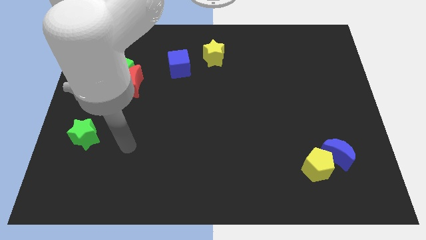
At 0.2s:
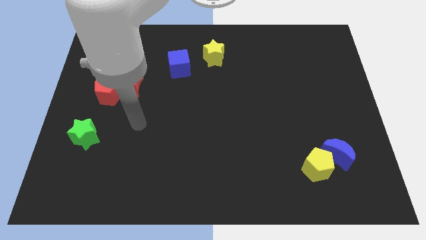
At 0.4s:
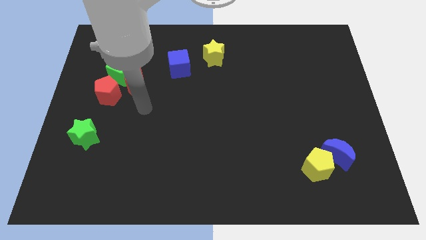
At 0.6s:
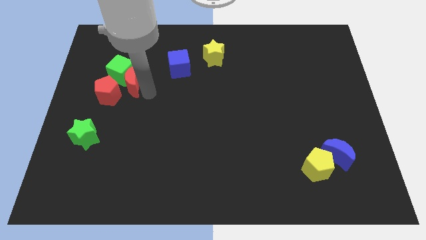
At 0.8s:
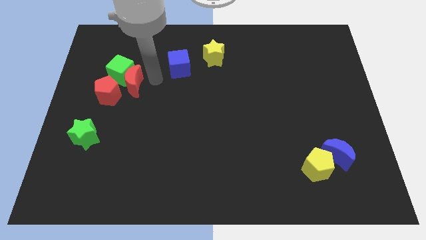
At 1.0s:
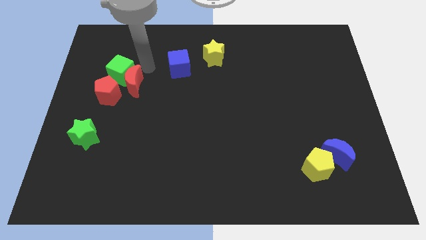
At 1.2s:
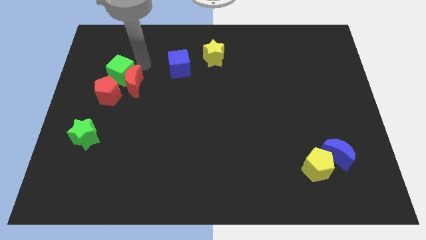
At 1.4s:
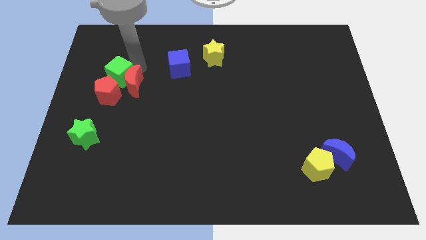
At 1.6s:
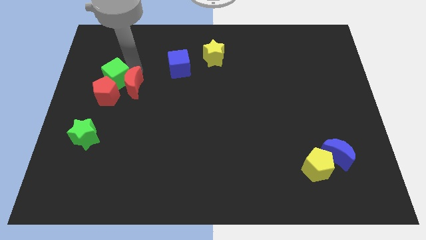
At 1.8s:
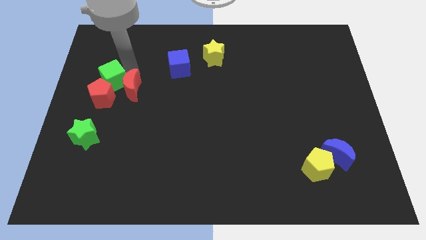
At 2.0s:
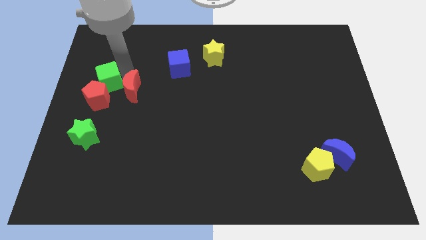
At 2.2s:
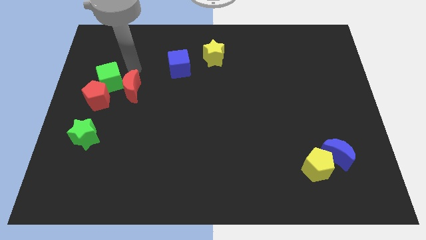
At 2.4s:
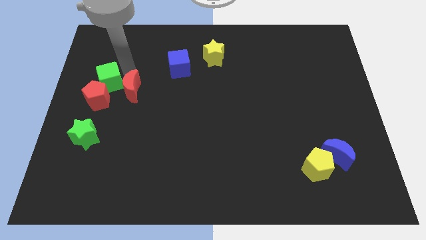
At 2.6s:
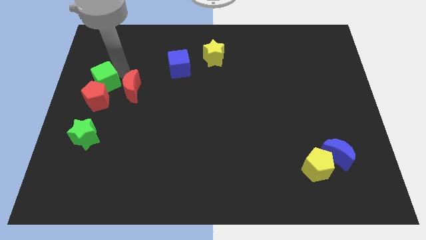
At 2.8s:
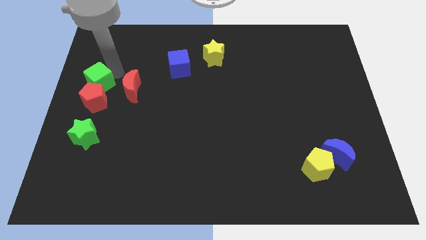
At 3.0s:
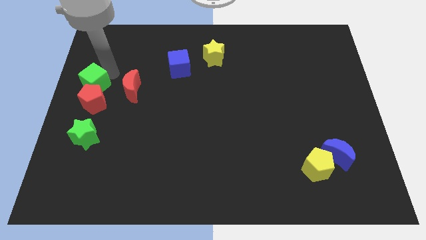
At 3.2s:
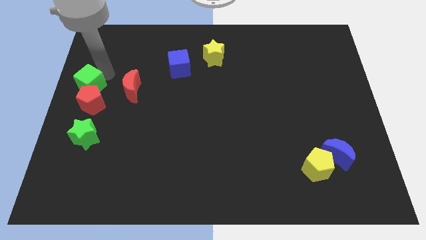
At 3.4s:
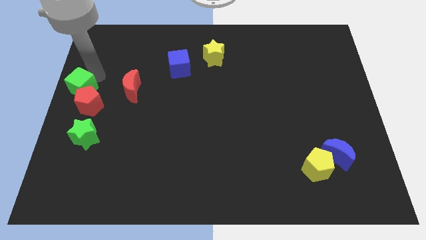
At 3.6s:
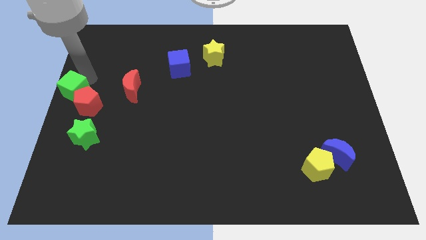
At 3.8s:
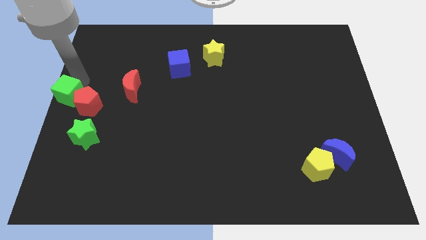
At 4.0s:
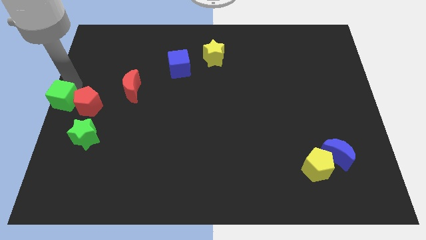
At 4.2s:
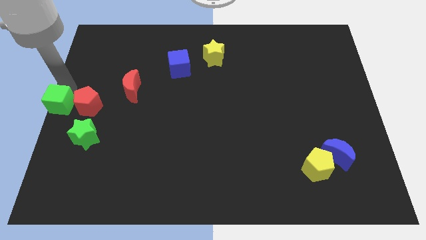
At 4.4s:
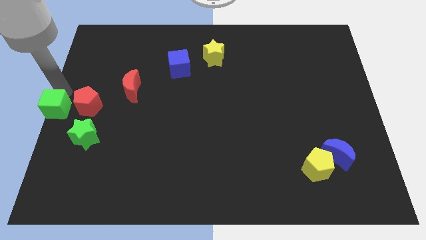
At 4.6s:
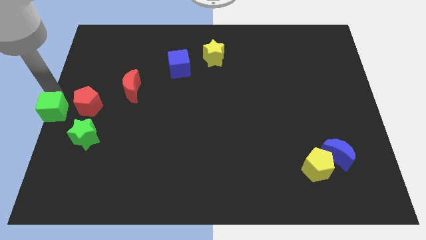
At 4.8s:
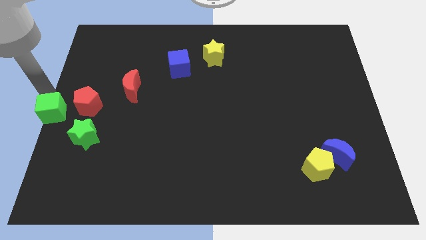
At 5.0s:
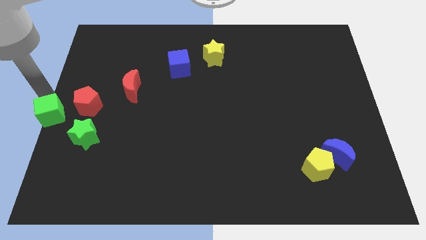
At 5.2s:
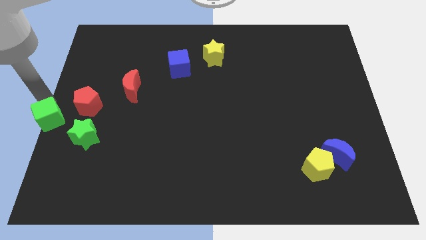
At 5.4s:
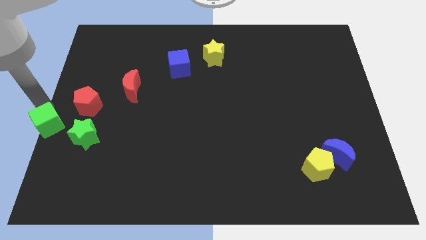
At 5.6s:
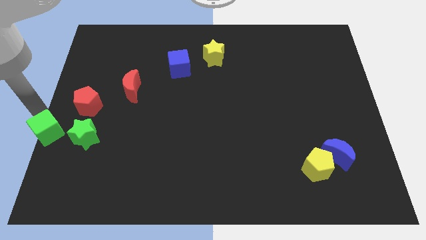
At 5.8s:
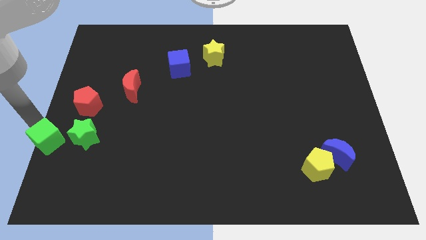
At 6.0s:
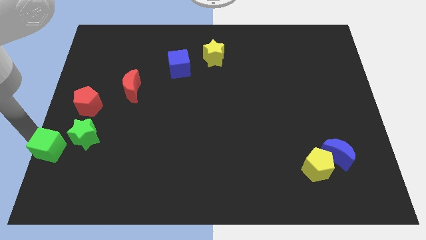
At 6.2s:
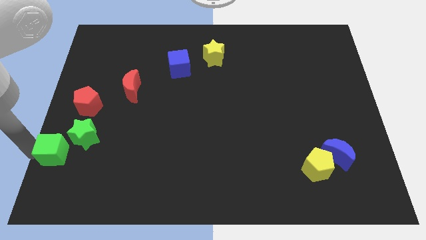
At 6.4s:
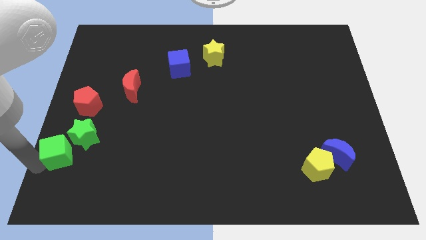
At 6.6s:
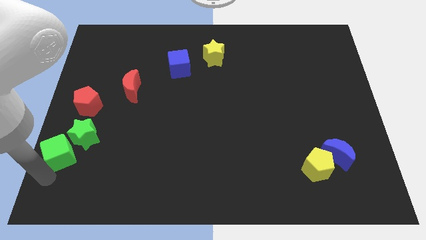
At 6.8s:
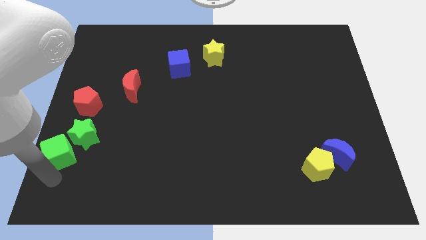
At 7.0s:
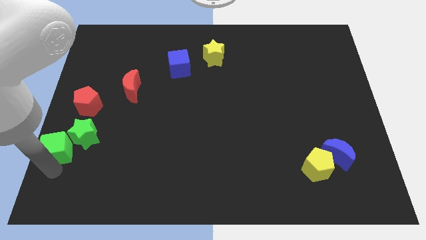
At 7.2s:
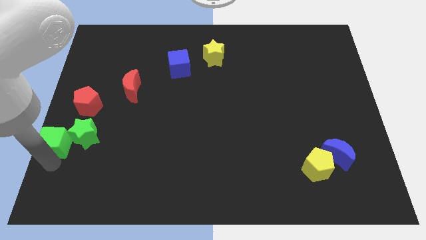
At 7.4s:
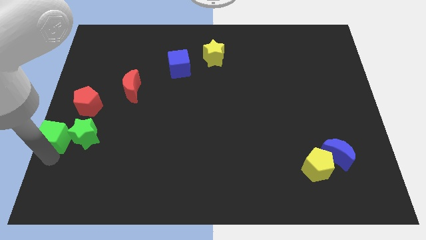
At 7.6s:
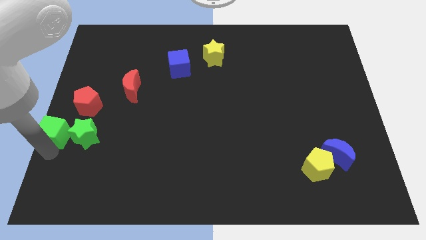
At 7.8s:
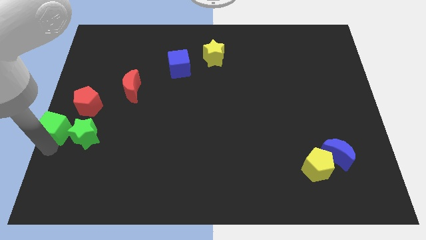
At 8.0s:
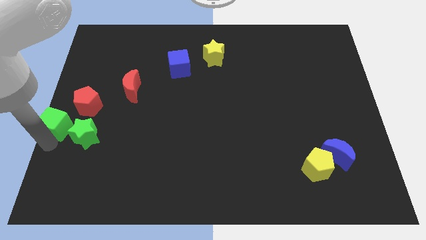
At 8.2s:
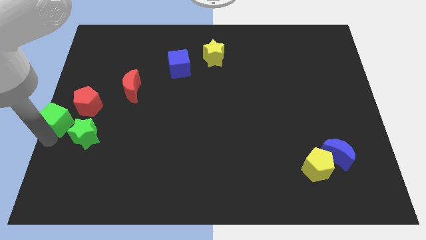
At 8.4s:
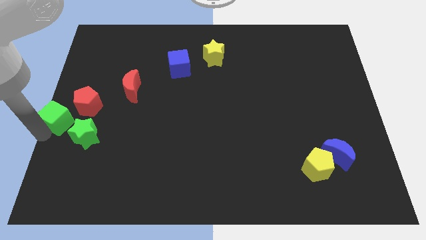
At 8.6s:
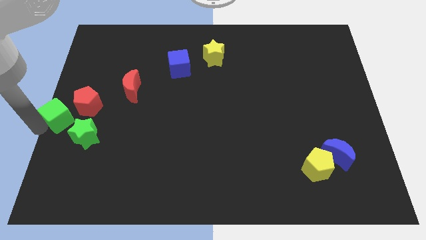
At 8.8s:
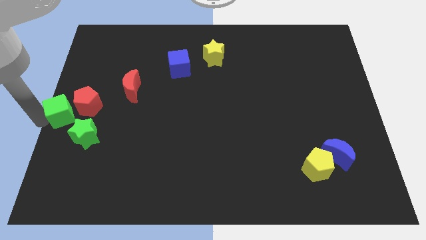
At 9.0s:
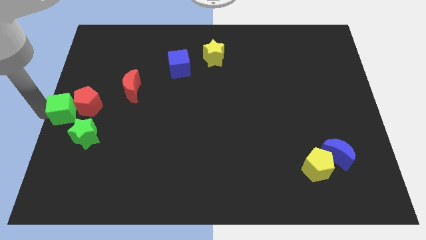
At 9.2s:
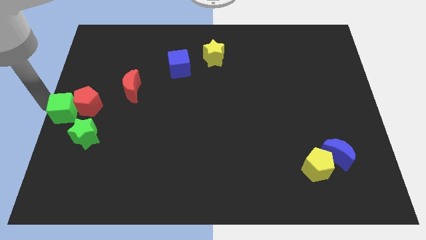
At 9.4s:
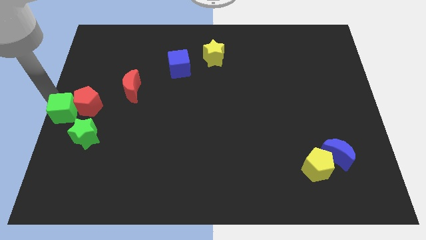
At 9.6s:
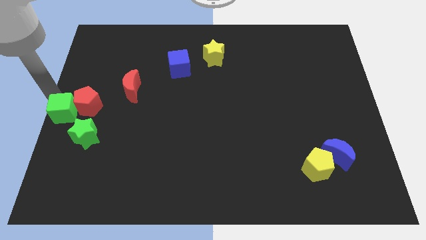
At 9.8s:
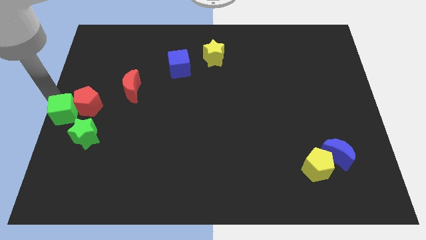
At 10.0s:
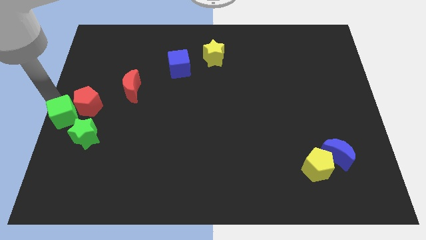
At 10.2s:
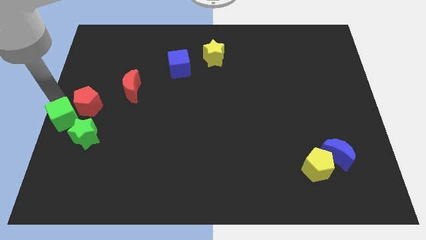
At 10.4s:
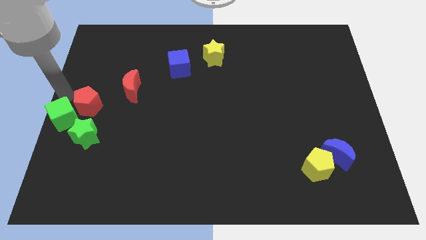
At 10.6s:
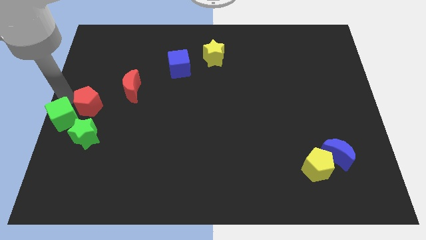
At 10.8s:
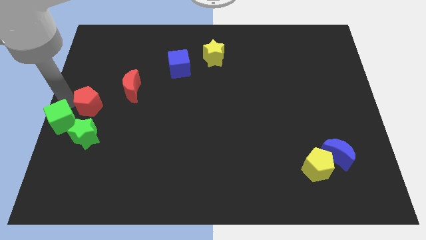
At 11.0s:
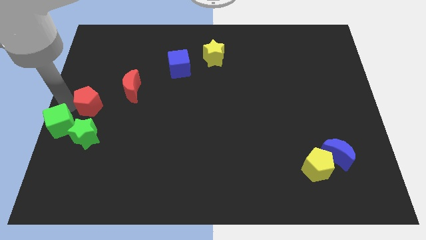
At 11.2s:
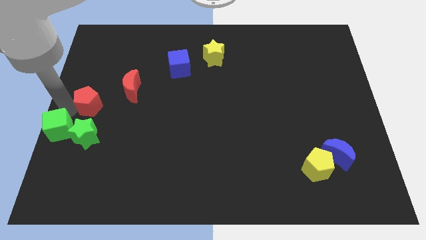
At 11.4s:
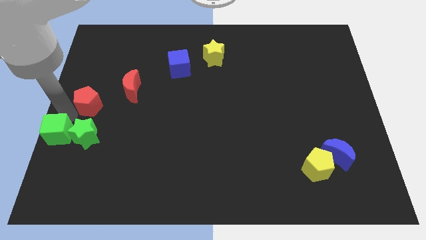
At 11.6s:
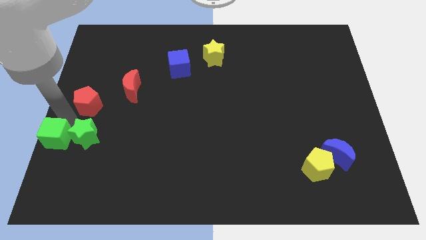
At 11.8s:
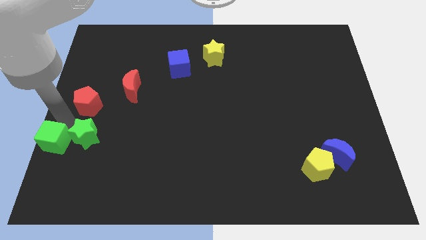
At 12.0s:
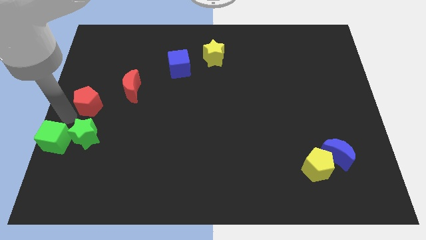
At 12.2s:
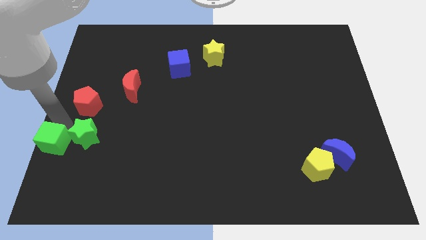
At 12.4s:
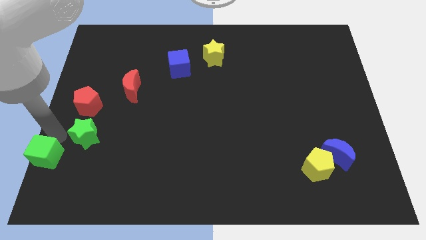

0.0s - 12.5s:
move the green cube to the bottom left

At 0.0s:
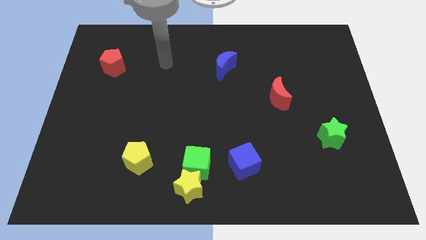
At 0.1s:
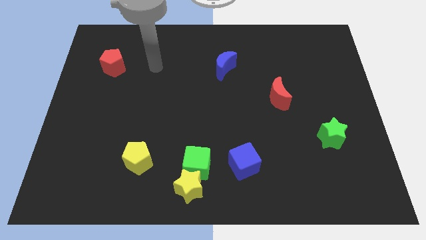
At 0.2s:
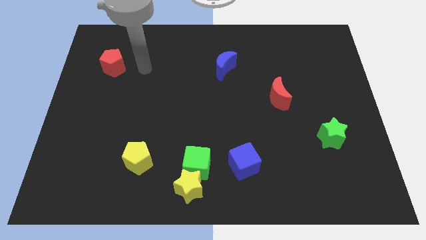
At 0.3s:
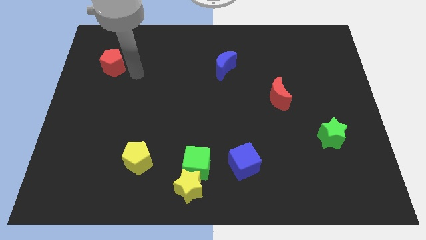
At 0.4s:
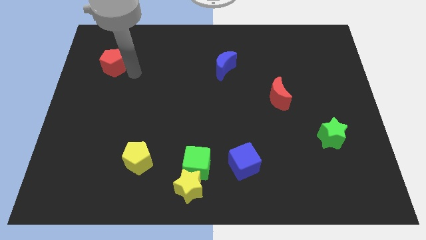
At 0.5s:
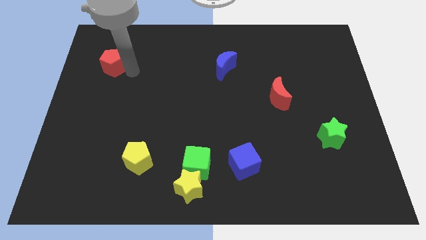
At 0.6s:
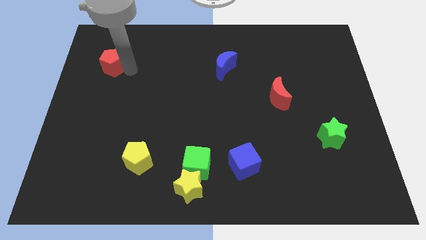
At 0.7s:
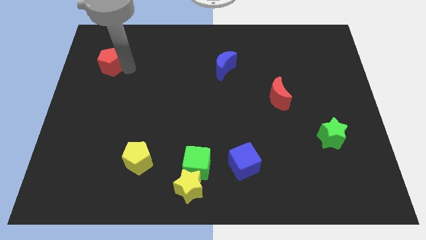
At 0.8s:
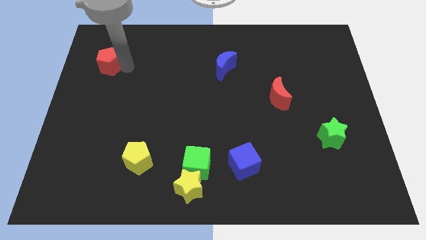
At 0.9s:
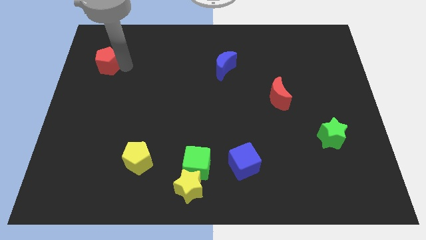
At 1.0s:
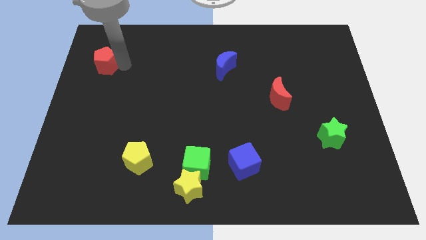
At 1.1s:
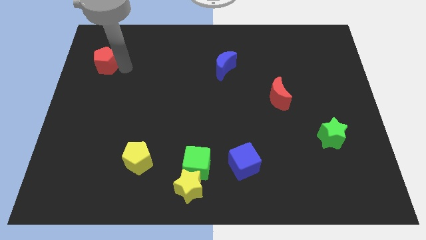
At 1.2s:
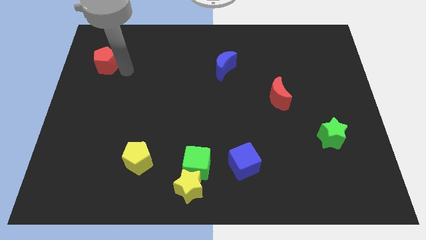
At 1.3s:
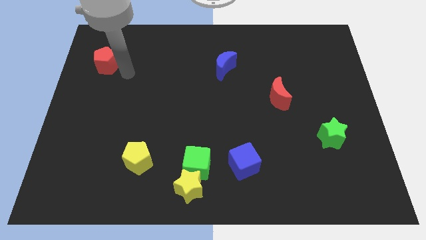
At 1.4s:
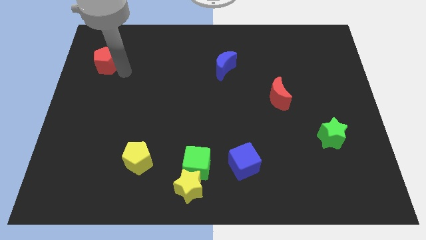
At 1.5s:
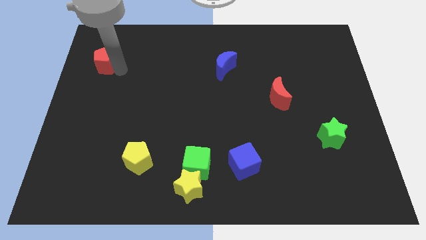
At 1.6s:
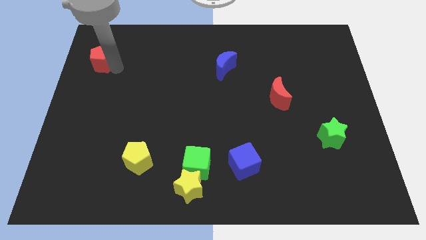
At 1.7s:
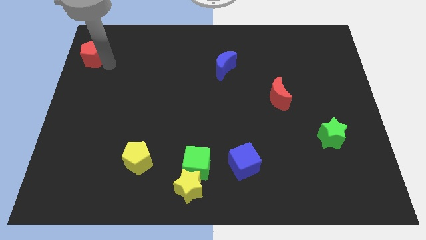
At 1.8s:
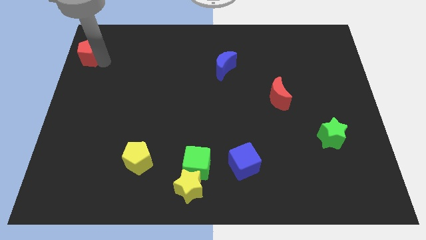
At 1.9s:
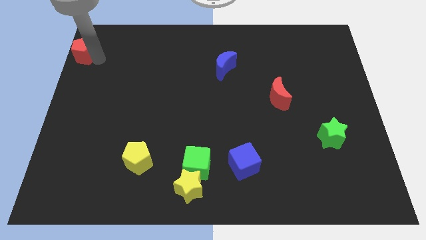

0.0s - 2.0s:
slide the red pentagon to the top left of the board
